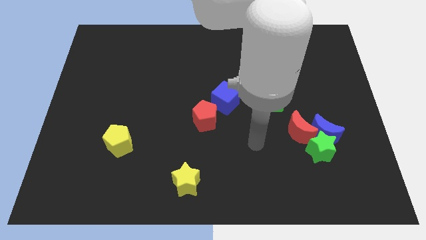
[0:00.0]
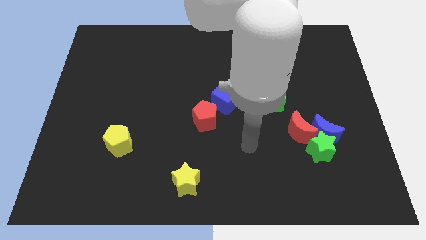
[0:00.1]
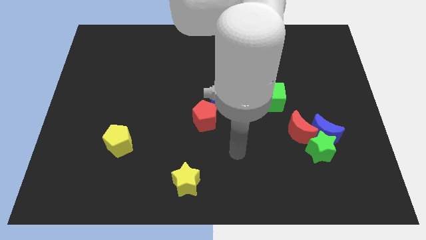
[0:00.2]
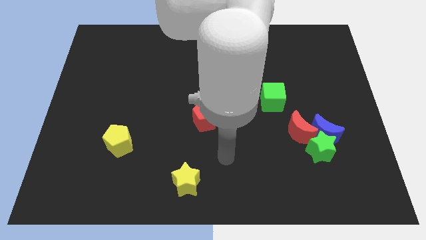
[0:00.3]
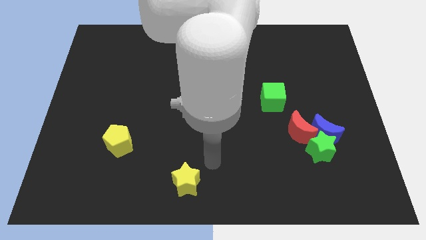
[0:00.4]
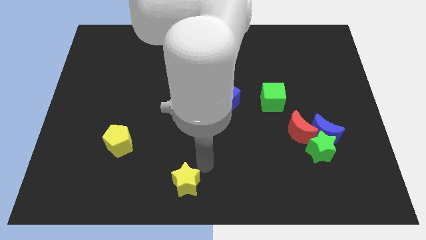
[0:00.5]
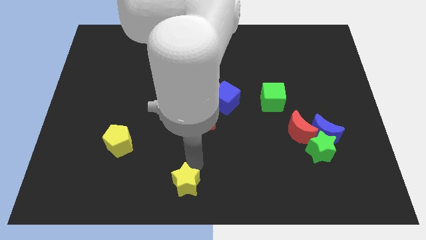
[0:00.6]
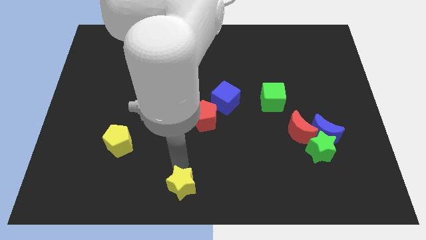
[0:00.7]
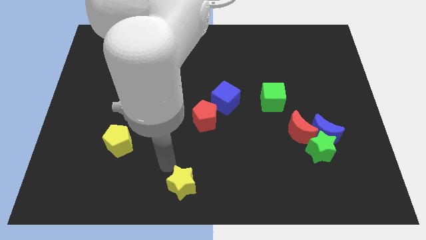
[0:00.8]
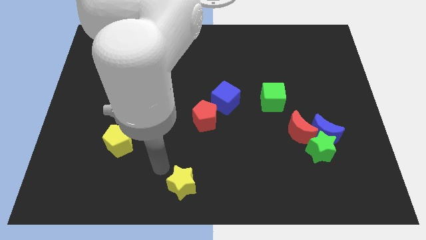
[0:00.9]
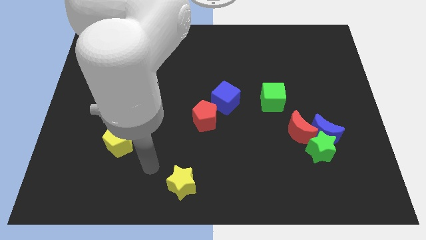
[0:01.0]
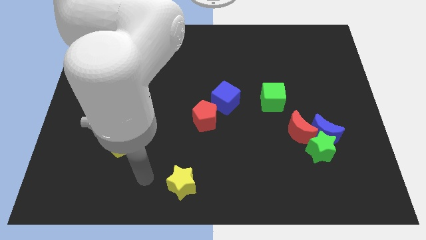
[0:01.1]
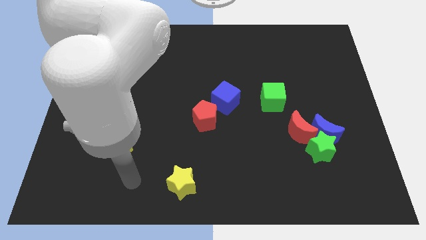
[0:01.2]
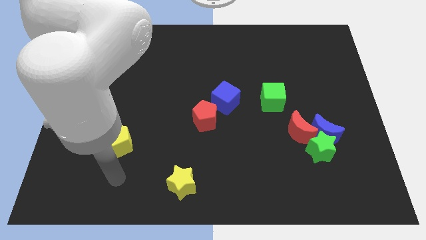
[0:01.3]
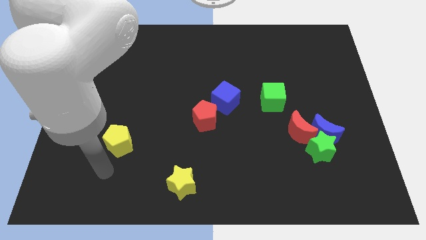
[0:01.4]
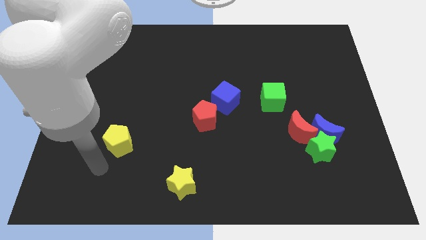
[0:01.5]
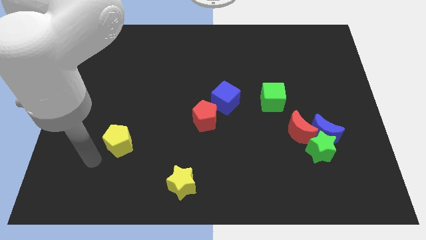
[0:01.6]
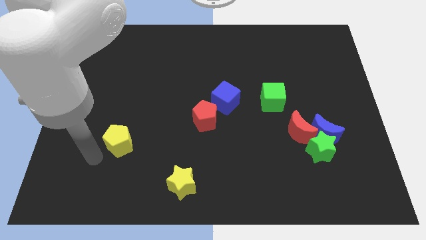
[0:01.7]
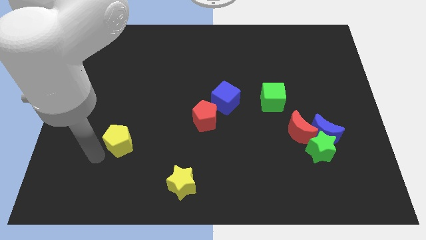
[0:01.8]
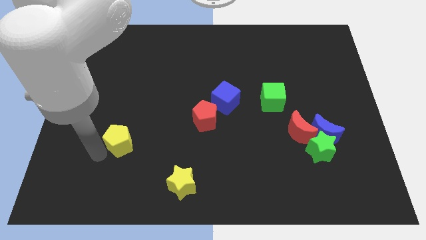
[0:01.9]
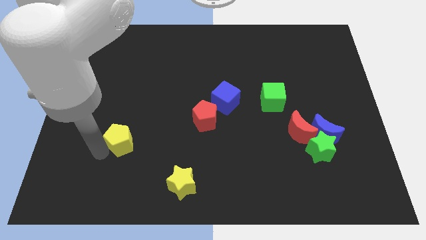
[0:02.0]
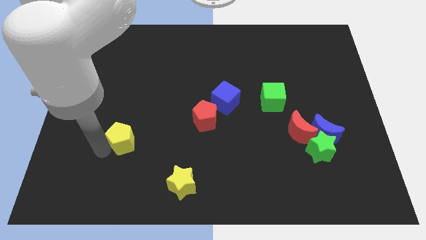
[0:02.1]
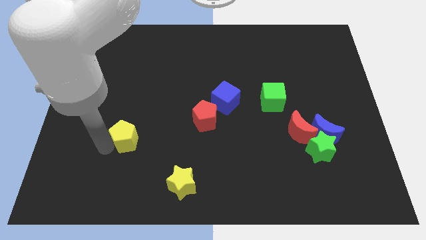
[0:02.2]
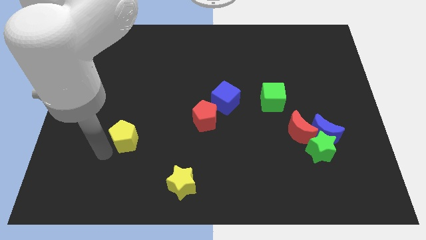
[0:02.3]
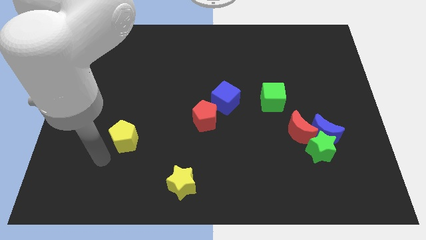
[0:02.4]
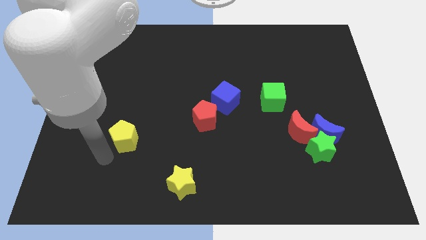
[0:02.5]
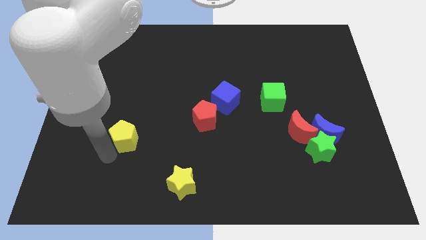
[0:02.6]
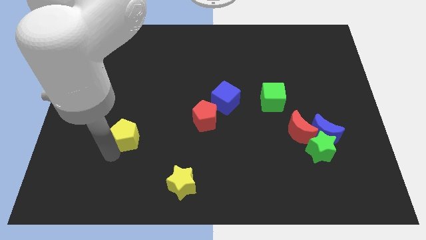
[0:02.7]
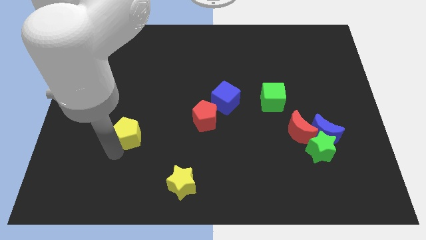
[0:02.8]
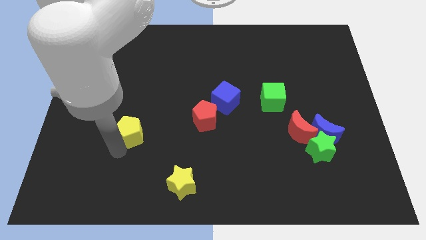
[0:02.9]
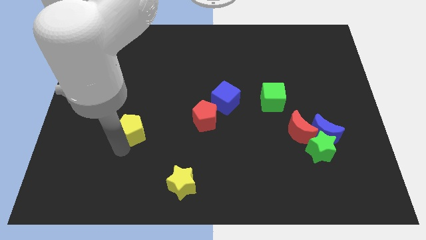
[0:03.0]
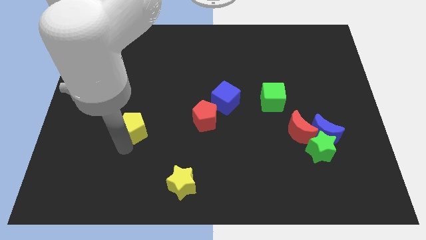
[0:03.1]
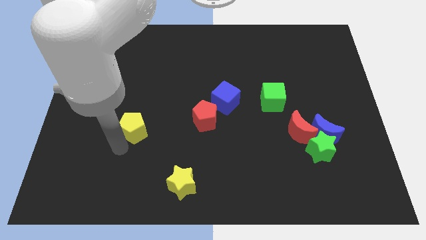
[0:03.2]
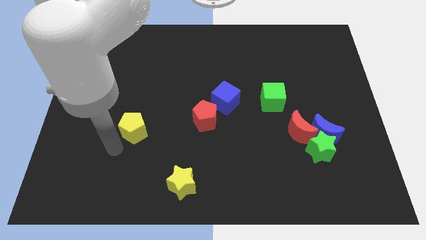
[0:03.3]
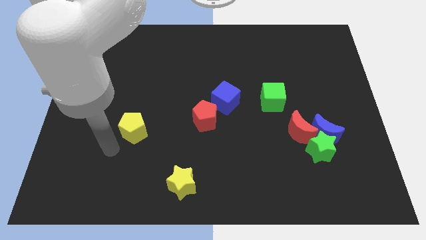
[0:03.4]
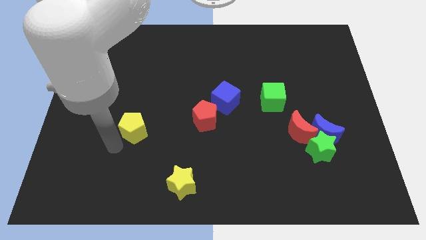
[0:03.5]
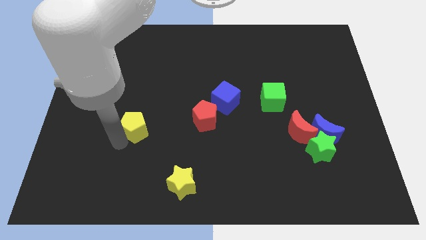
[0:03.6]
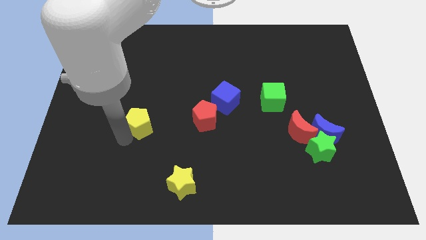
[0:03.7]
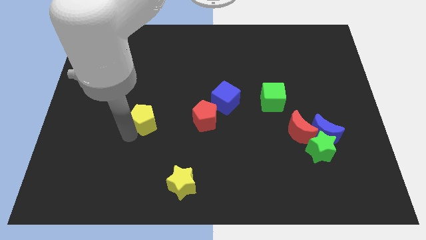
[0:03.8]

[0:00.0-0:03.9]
slightly slide the yellow pentagon diagonally upwards and to the right

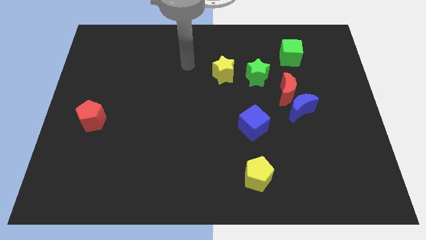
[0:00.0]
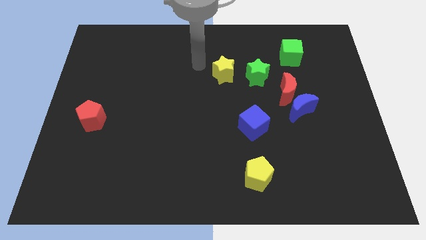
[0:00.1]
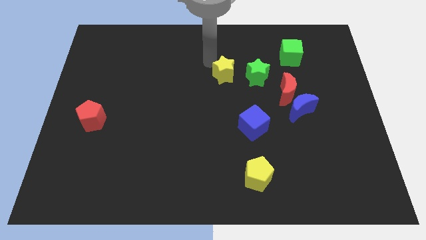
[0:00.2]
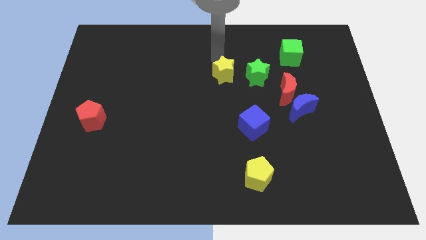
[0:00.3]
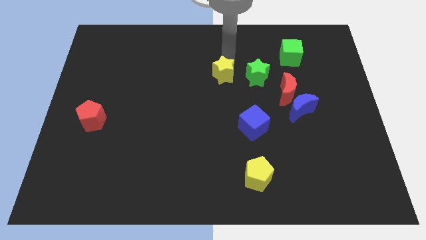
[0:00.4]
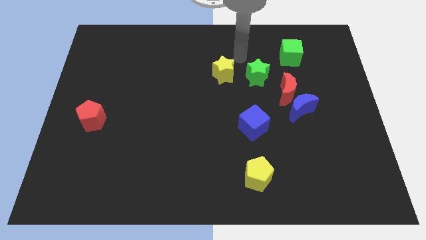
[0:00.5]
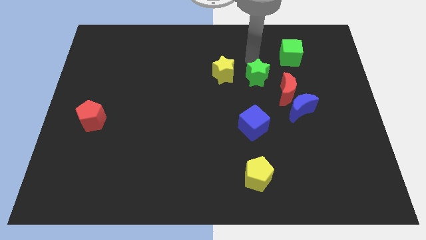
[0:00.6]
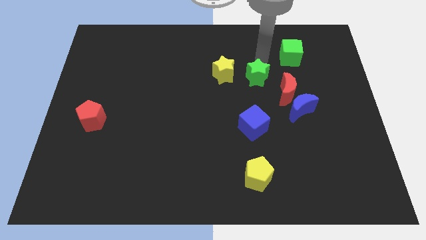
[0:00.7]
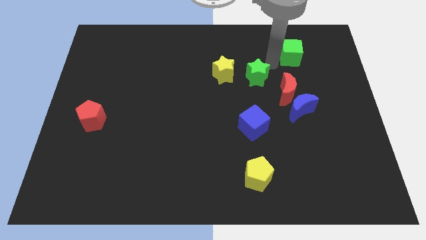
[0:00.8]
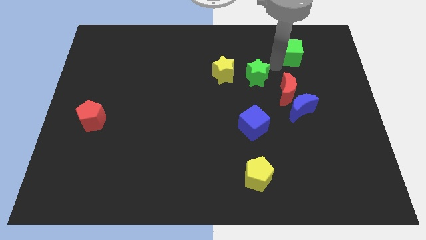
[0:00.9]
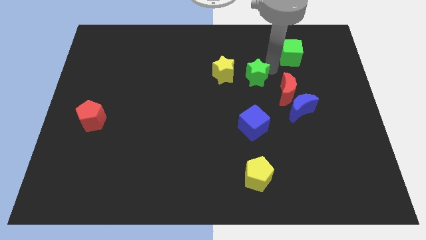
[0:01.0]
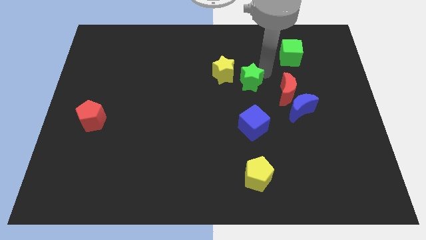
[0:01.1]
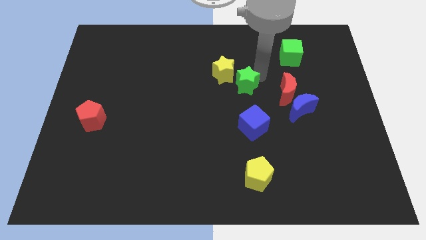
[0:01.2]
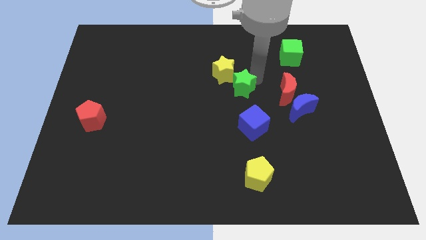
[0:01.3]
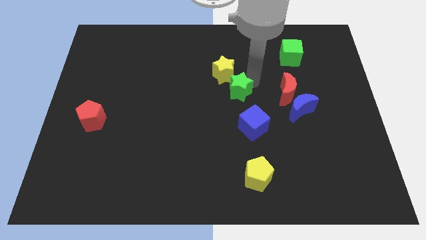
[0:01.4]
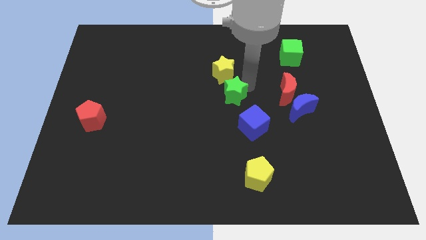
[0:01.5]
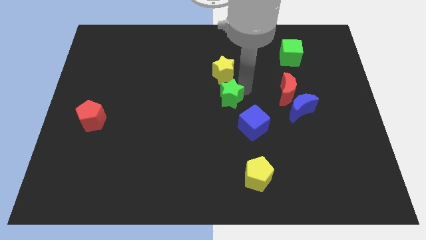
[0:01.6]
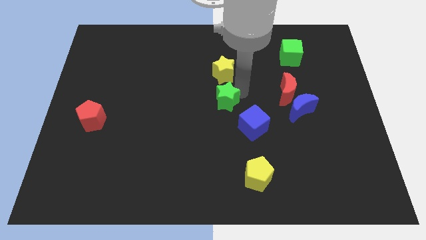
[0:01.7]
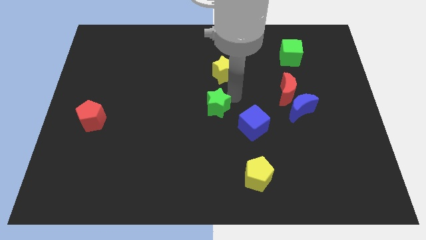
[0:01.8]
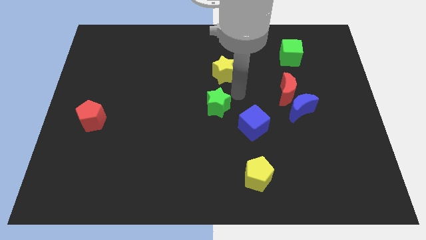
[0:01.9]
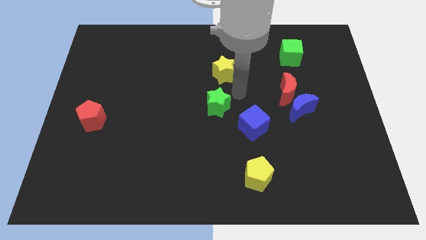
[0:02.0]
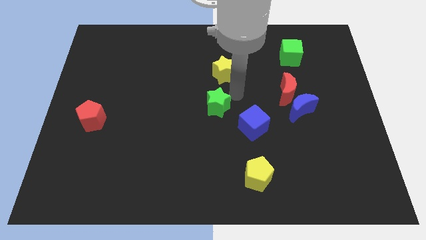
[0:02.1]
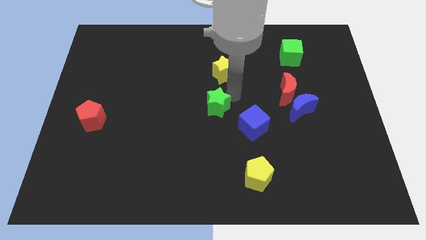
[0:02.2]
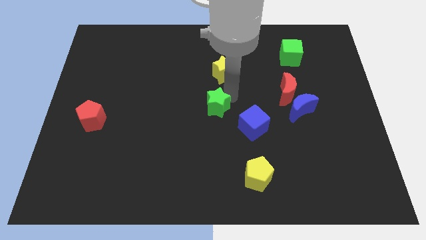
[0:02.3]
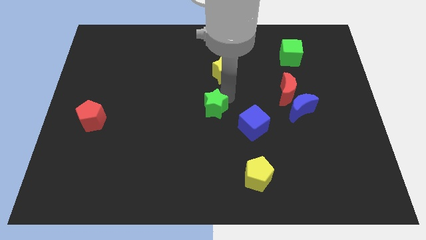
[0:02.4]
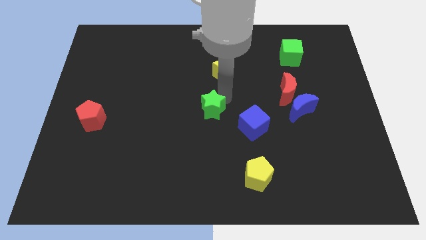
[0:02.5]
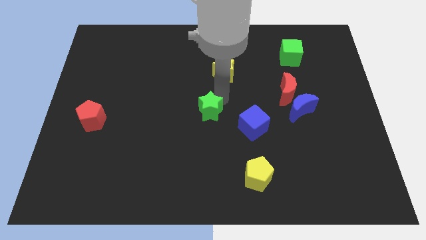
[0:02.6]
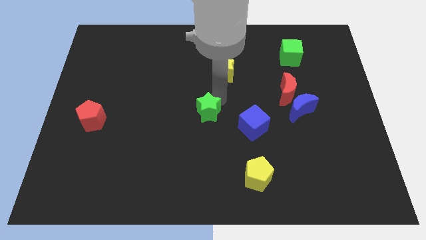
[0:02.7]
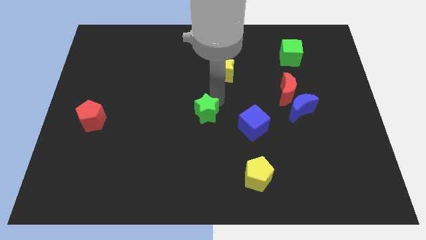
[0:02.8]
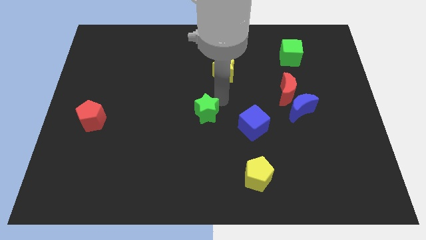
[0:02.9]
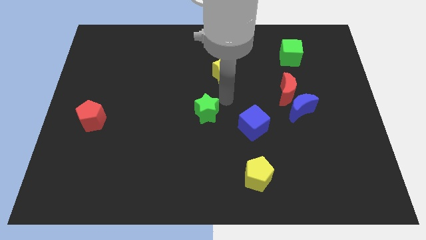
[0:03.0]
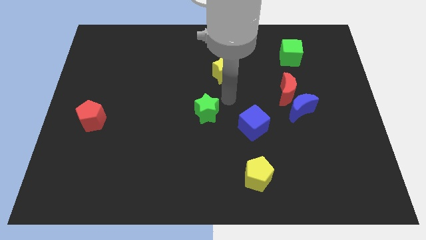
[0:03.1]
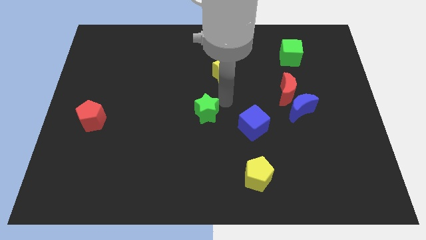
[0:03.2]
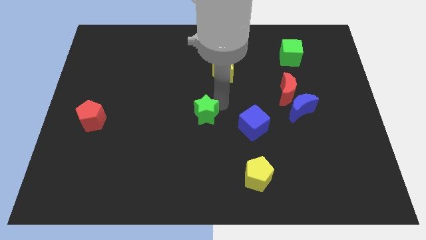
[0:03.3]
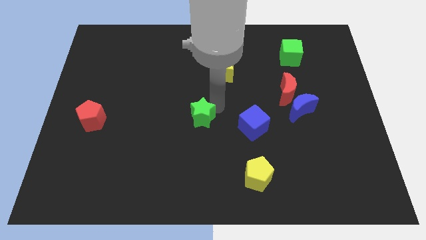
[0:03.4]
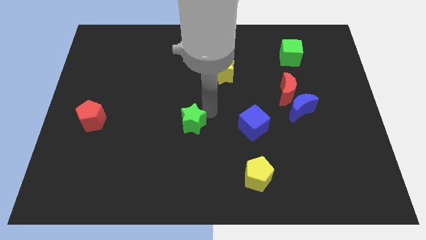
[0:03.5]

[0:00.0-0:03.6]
move the green star downwards and then to the left

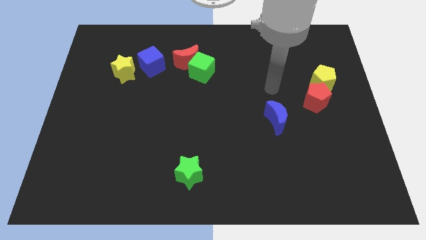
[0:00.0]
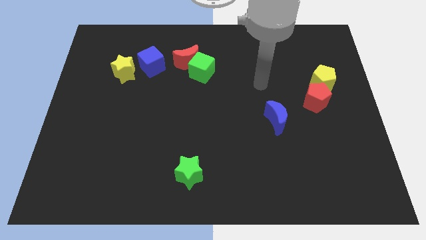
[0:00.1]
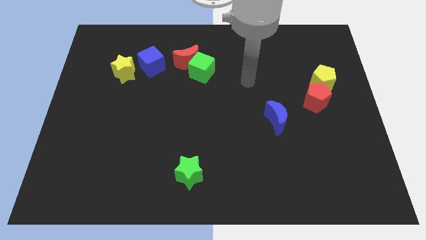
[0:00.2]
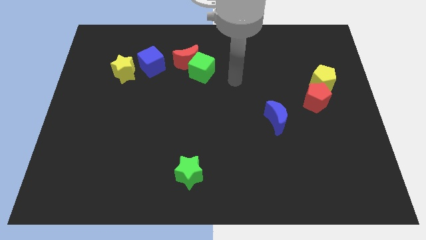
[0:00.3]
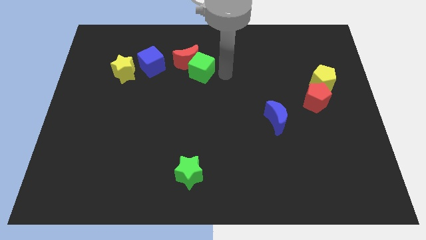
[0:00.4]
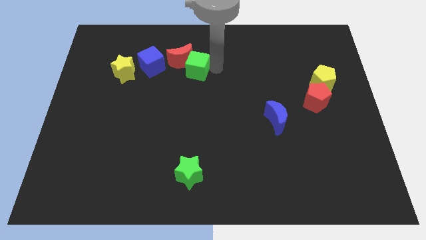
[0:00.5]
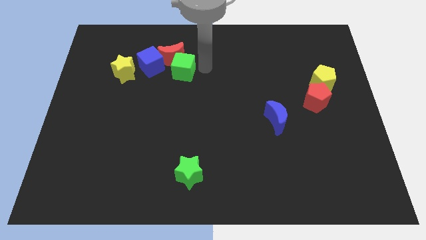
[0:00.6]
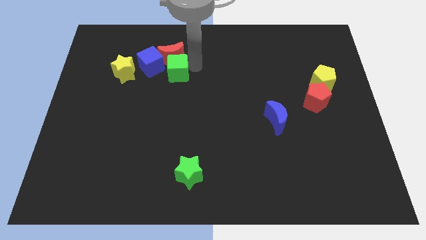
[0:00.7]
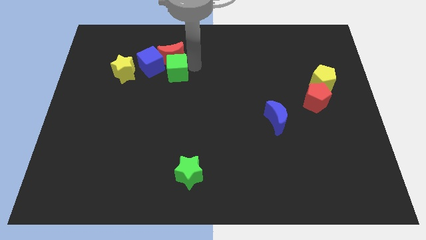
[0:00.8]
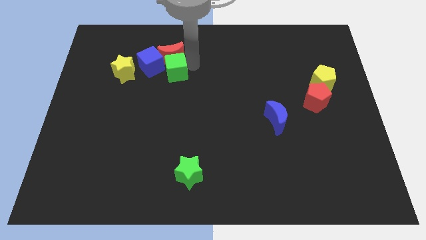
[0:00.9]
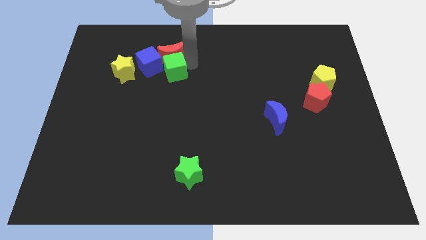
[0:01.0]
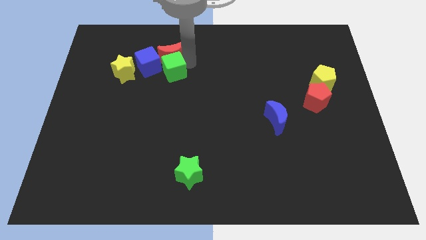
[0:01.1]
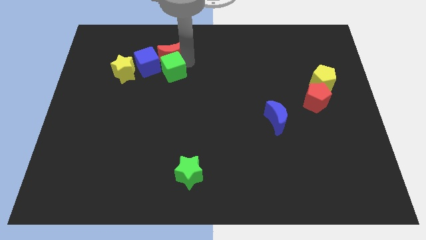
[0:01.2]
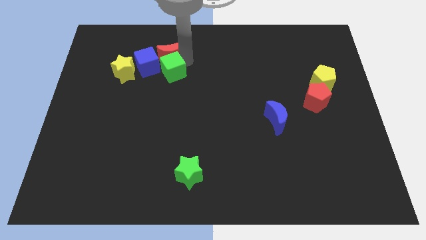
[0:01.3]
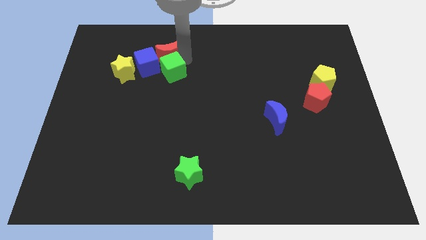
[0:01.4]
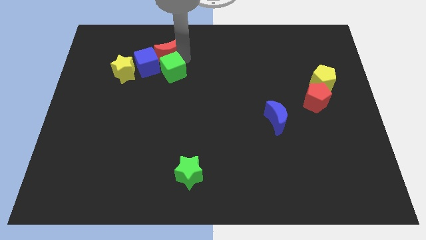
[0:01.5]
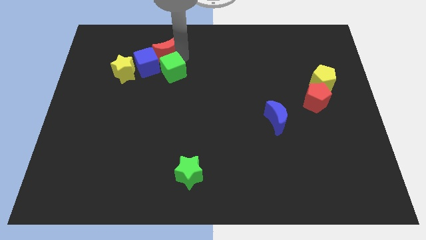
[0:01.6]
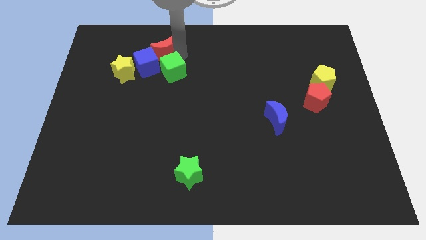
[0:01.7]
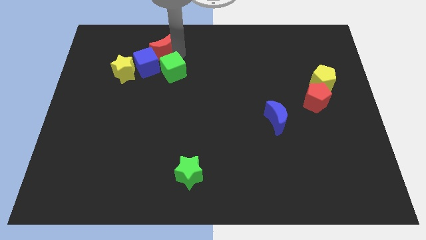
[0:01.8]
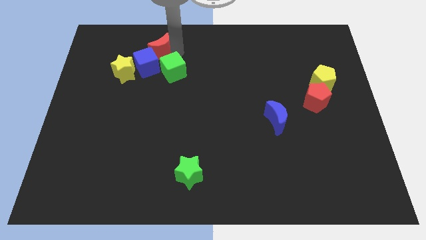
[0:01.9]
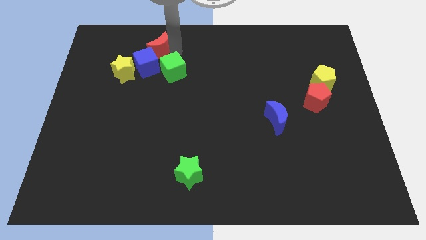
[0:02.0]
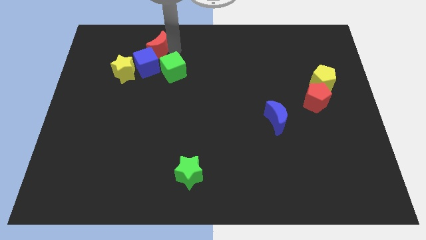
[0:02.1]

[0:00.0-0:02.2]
slightly move the red moon left
